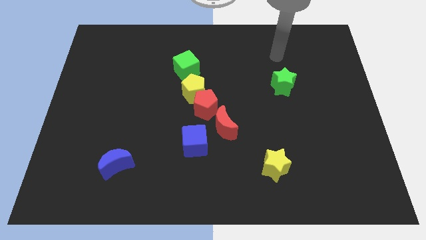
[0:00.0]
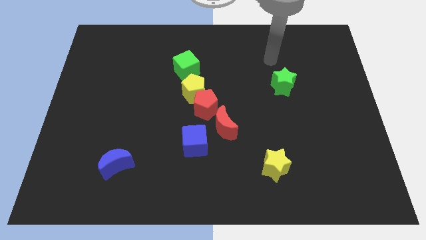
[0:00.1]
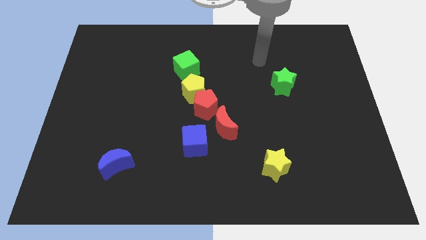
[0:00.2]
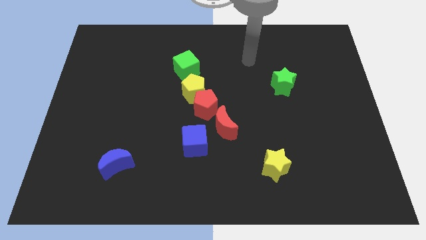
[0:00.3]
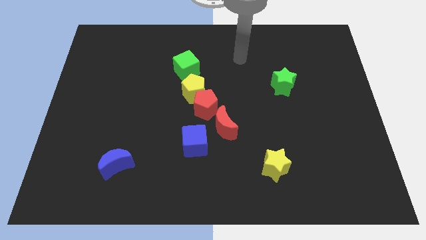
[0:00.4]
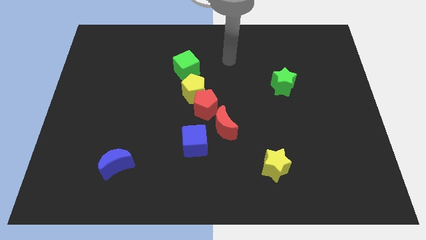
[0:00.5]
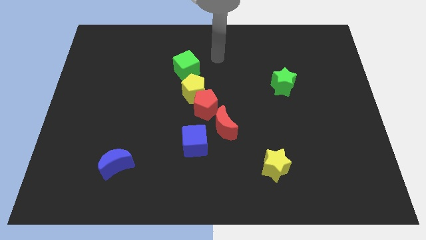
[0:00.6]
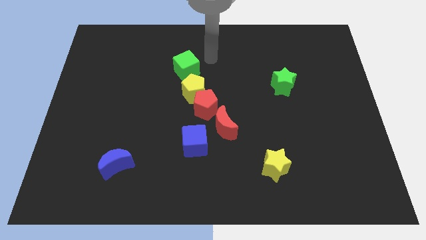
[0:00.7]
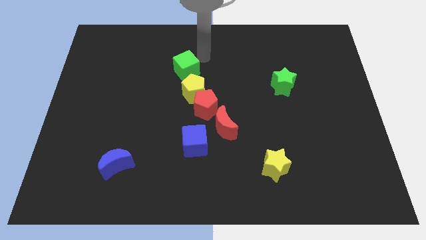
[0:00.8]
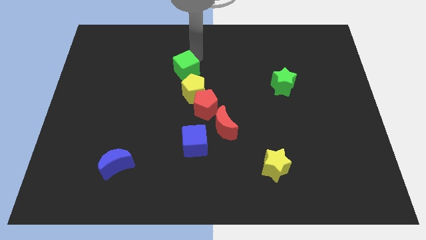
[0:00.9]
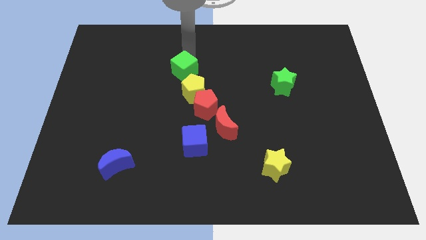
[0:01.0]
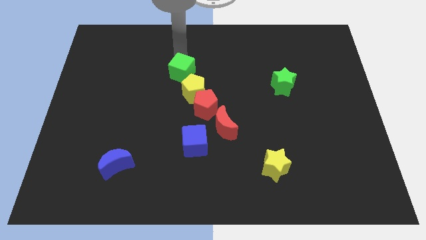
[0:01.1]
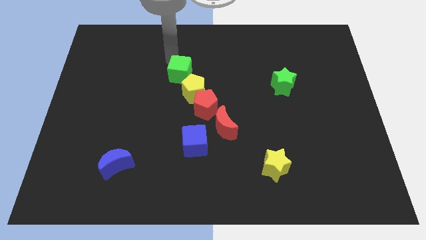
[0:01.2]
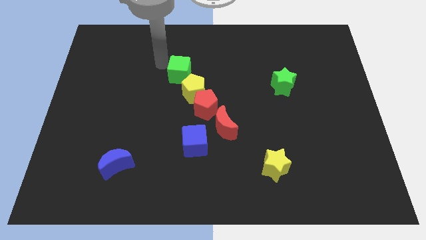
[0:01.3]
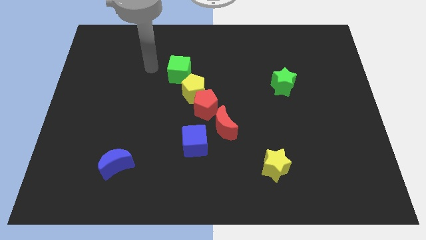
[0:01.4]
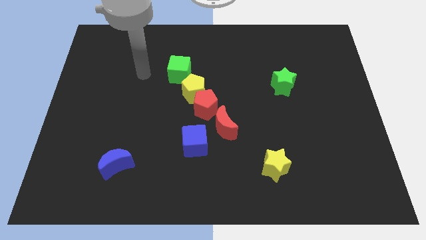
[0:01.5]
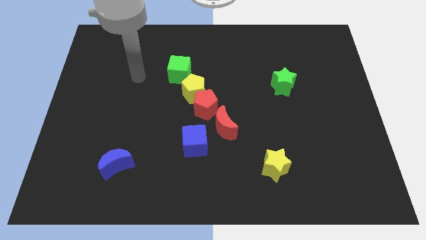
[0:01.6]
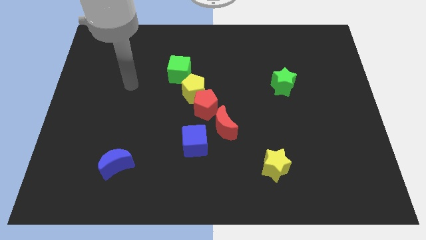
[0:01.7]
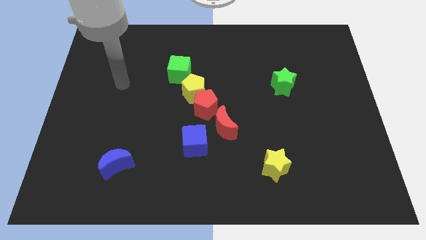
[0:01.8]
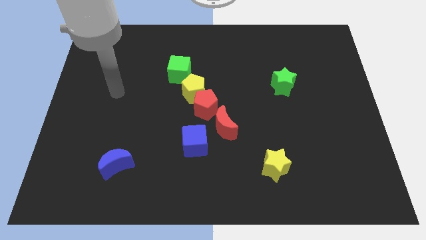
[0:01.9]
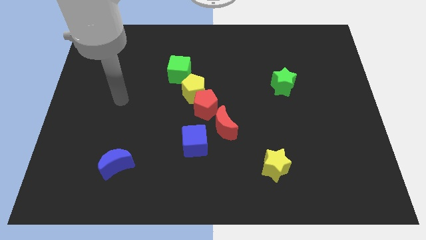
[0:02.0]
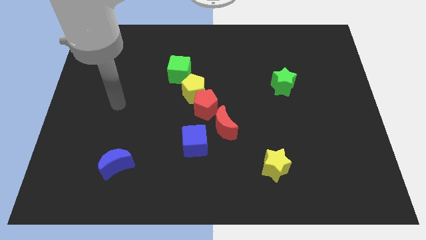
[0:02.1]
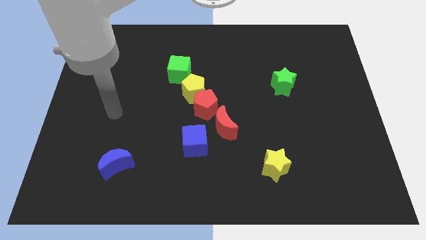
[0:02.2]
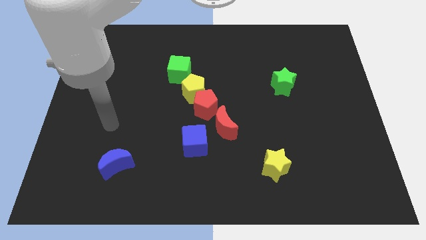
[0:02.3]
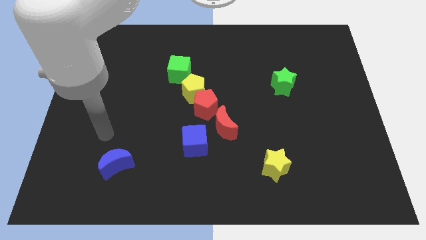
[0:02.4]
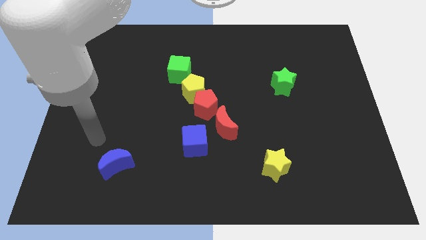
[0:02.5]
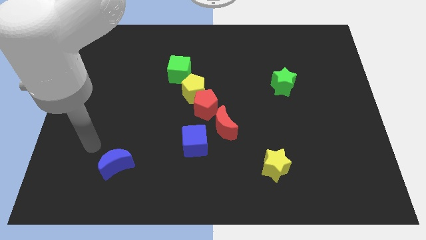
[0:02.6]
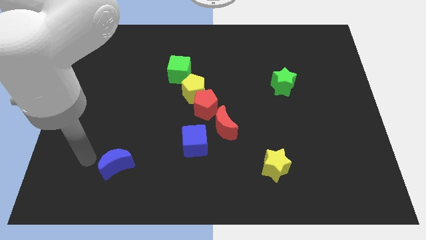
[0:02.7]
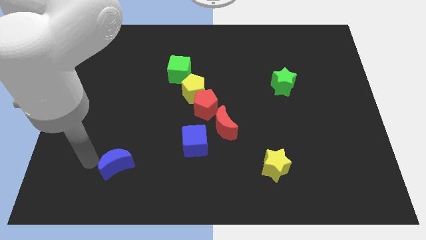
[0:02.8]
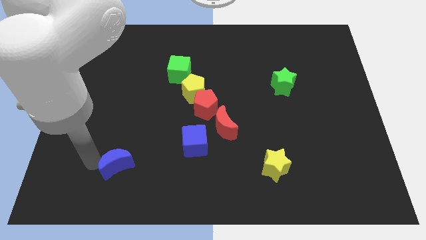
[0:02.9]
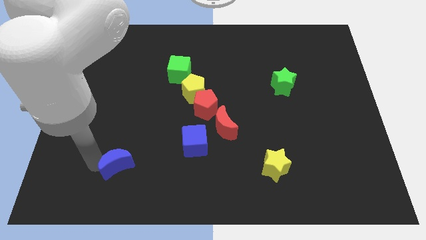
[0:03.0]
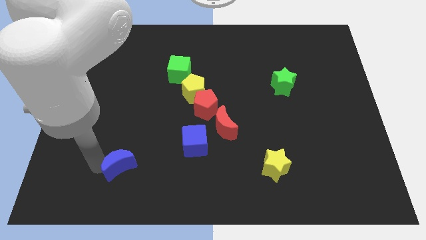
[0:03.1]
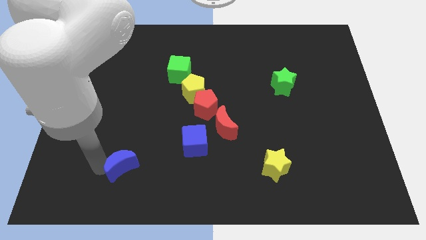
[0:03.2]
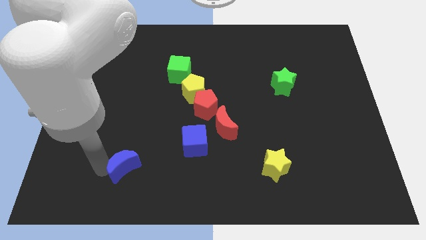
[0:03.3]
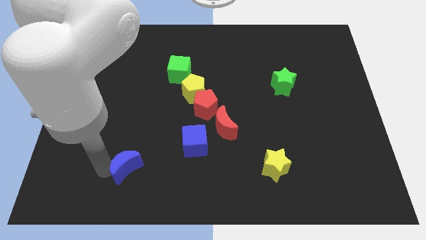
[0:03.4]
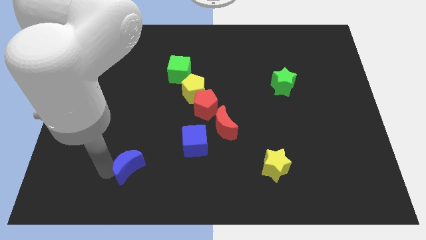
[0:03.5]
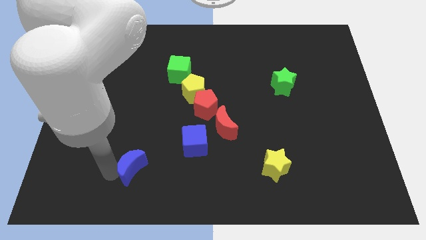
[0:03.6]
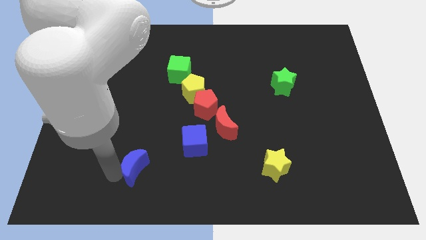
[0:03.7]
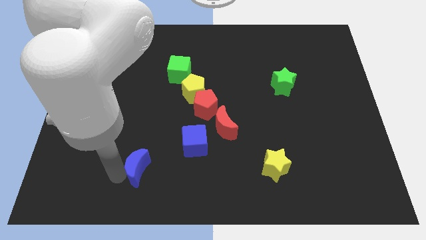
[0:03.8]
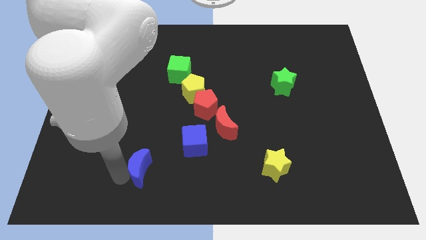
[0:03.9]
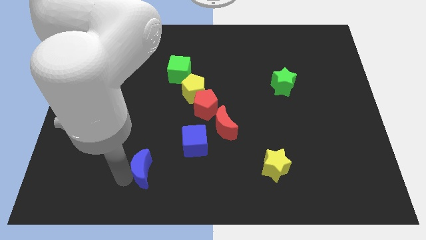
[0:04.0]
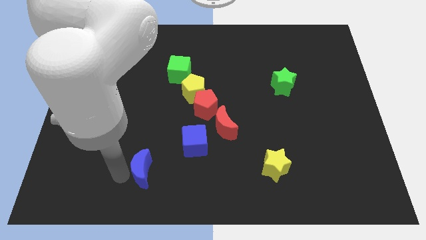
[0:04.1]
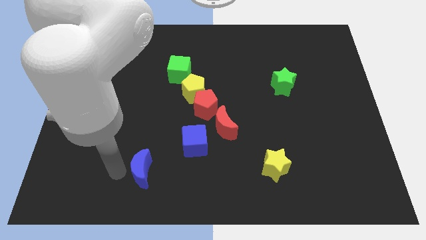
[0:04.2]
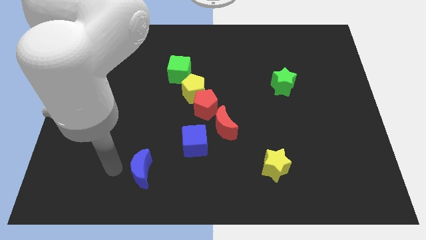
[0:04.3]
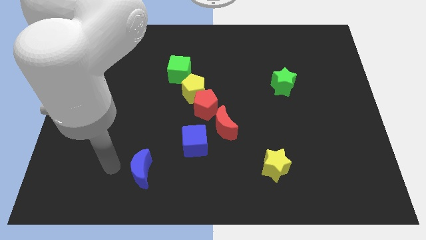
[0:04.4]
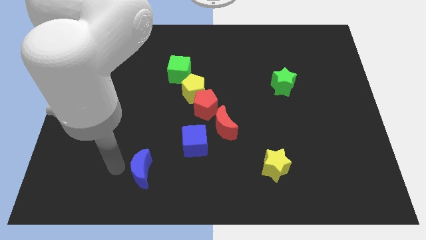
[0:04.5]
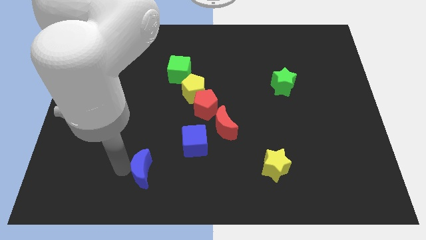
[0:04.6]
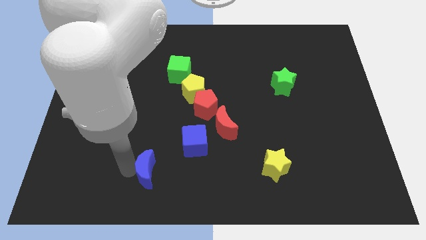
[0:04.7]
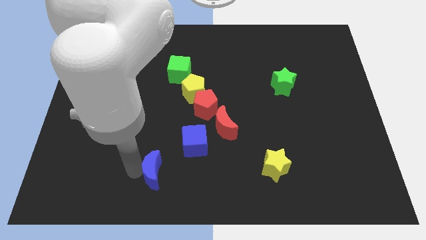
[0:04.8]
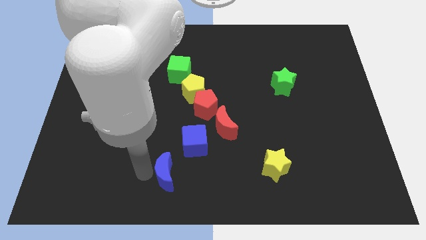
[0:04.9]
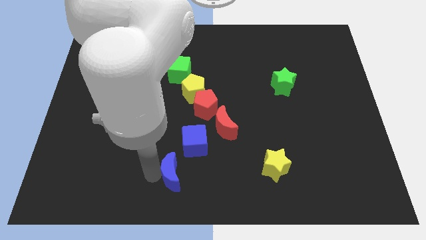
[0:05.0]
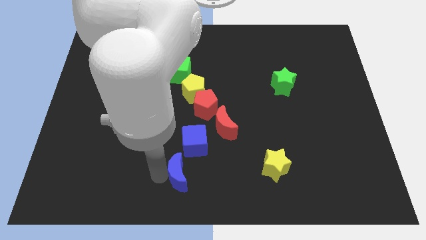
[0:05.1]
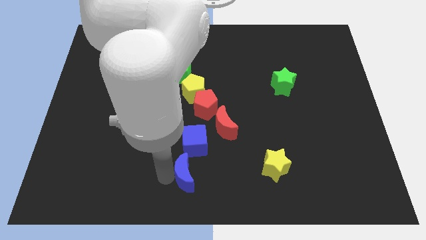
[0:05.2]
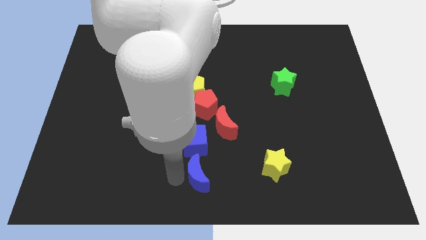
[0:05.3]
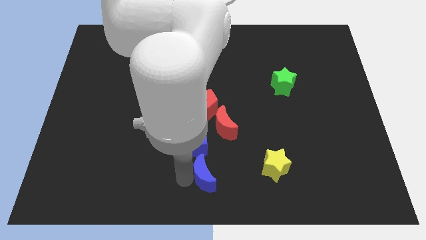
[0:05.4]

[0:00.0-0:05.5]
slide the blue moon left of the yellow star

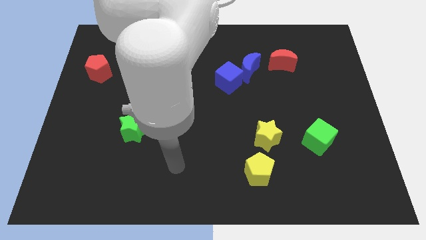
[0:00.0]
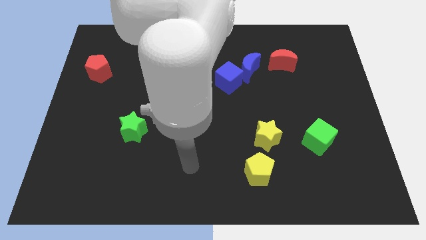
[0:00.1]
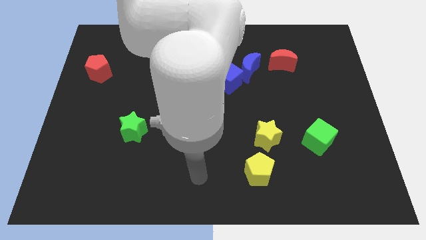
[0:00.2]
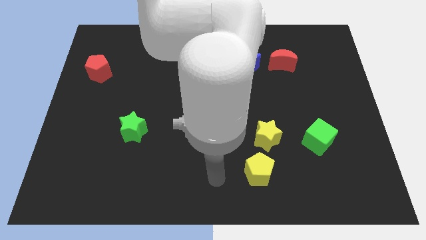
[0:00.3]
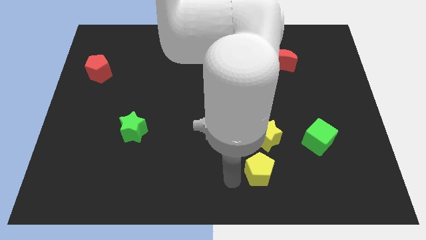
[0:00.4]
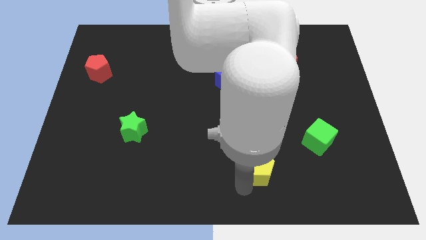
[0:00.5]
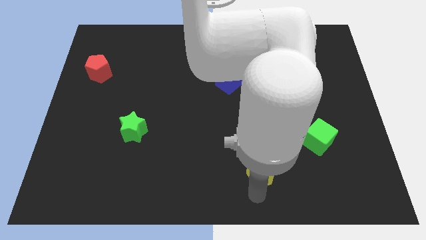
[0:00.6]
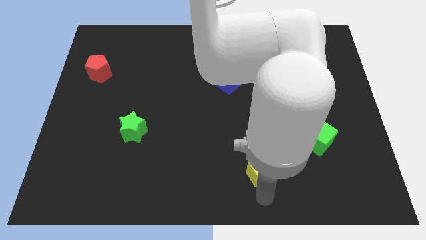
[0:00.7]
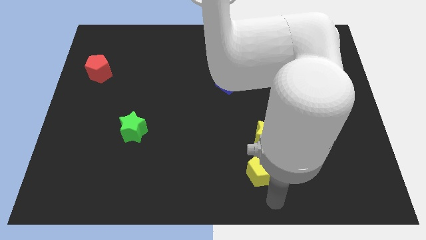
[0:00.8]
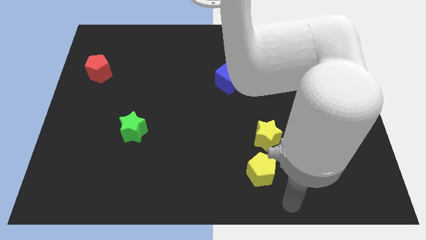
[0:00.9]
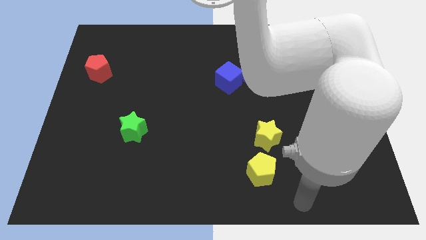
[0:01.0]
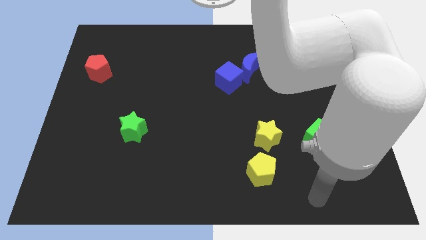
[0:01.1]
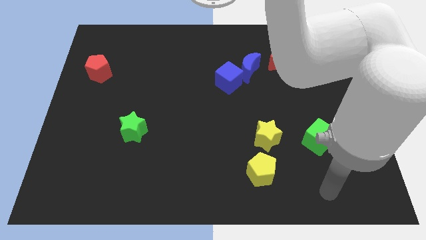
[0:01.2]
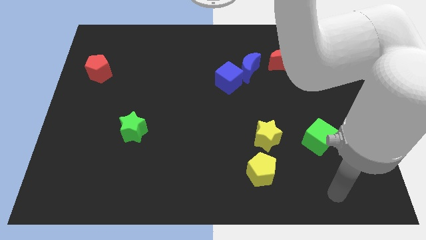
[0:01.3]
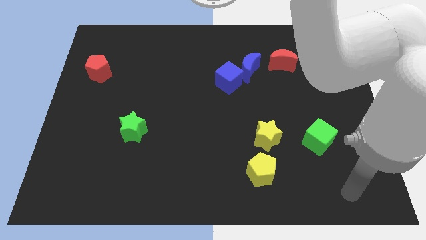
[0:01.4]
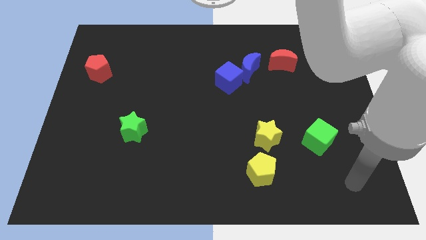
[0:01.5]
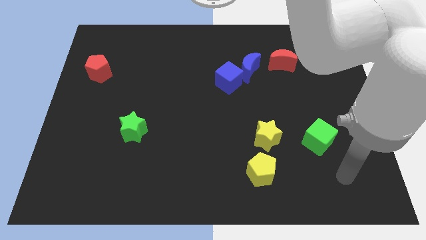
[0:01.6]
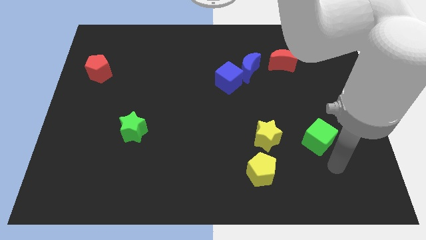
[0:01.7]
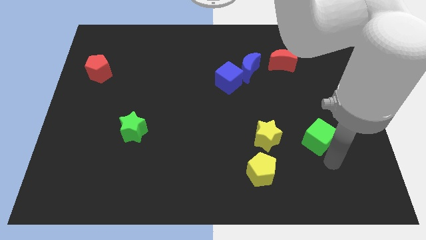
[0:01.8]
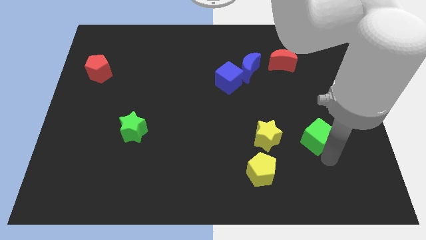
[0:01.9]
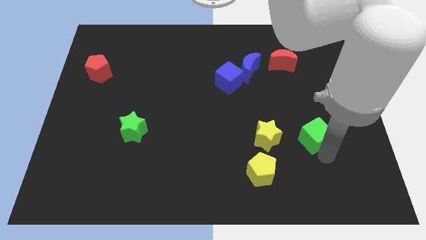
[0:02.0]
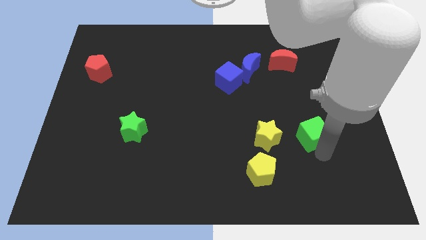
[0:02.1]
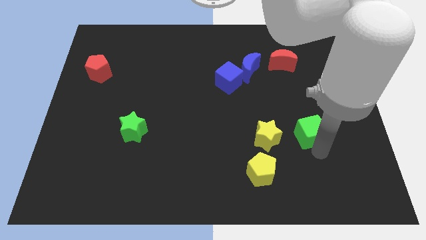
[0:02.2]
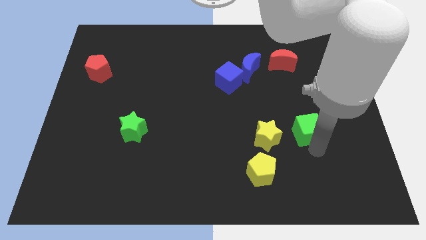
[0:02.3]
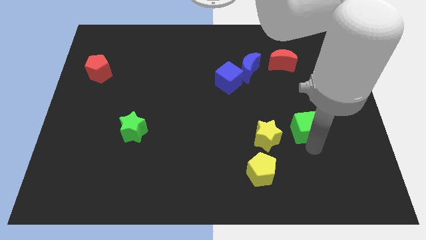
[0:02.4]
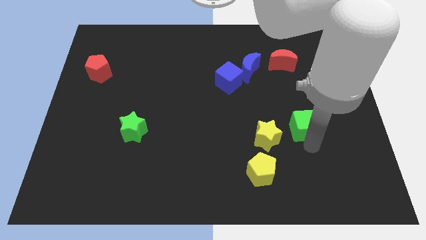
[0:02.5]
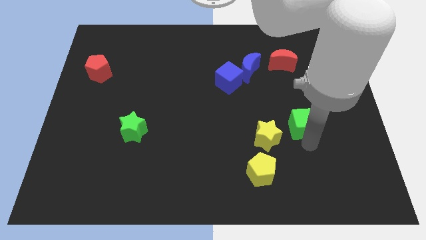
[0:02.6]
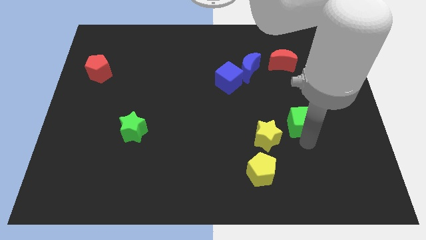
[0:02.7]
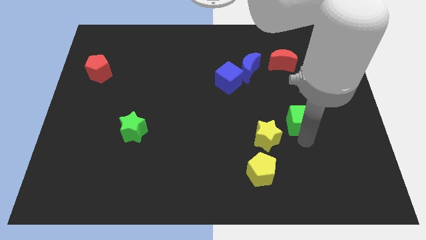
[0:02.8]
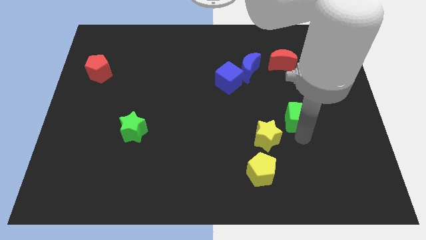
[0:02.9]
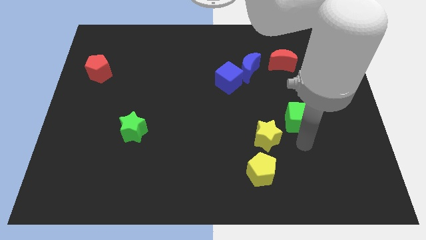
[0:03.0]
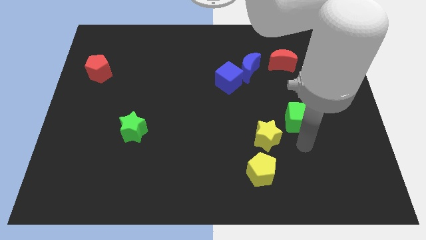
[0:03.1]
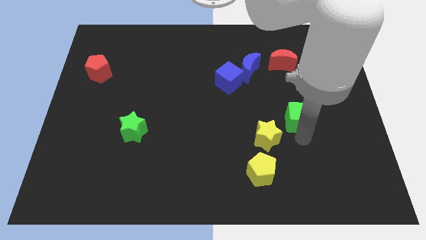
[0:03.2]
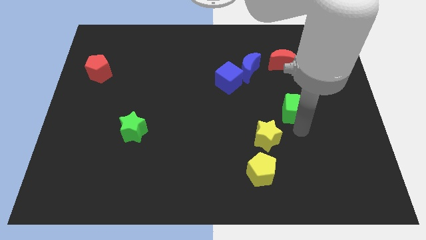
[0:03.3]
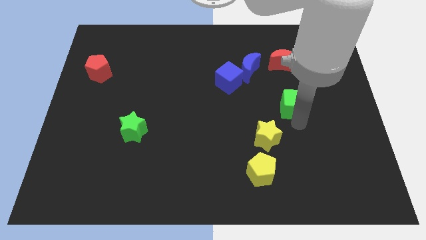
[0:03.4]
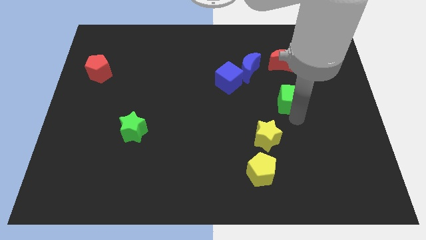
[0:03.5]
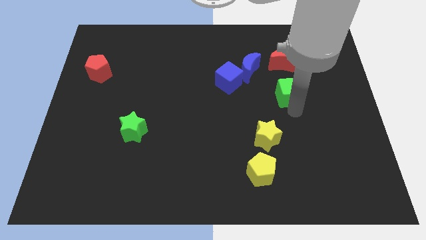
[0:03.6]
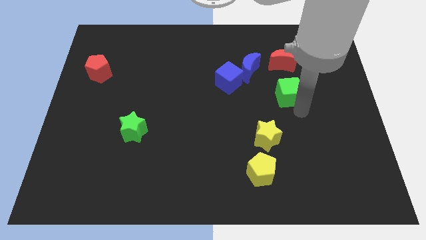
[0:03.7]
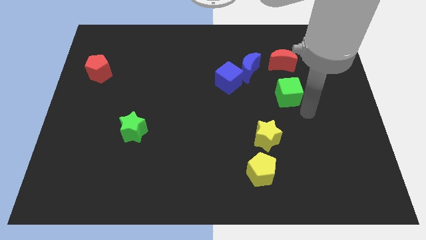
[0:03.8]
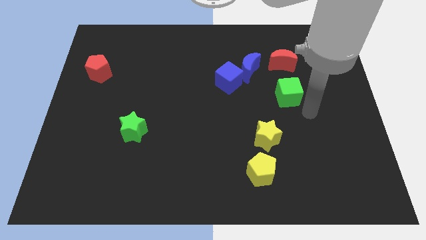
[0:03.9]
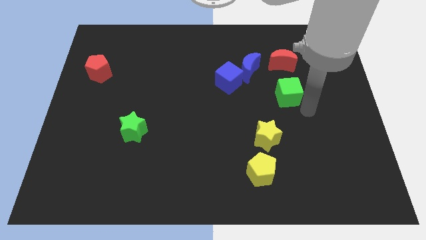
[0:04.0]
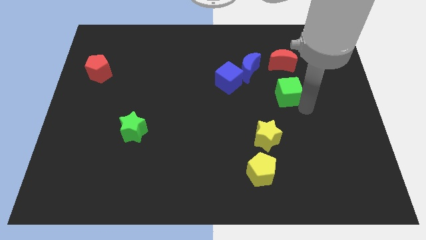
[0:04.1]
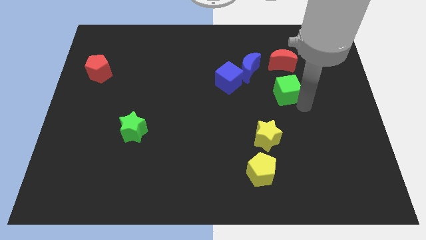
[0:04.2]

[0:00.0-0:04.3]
put the green cube right of the blue cube
